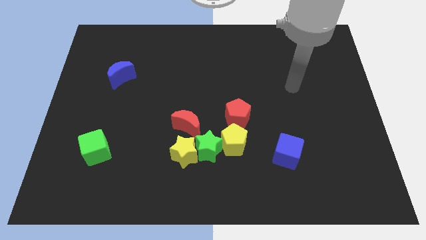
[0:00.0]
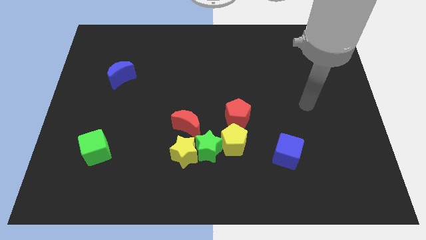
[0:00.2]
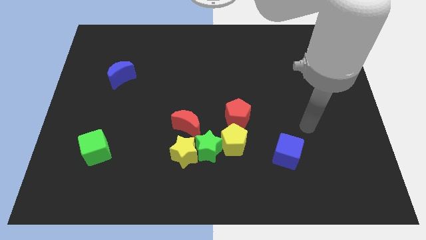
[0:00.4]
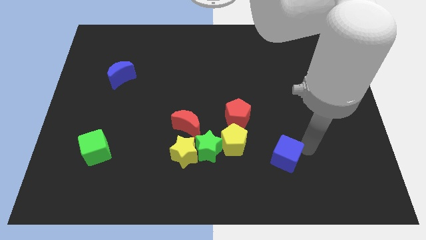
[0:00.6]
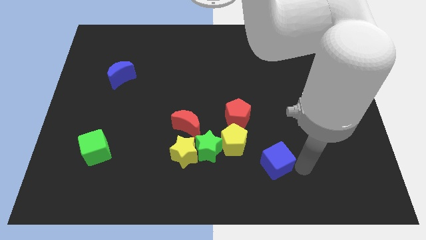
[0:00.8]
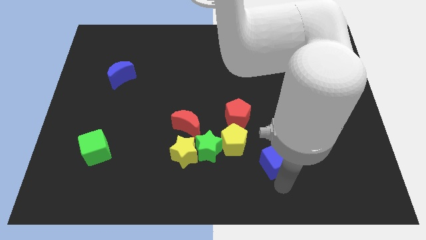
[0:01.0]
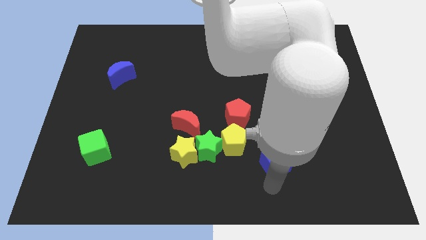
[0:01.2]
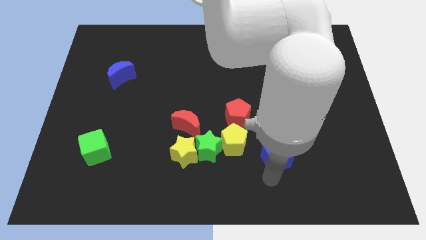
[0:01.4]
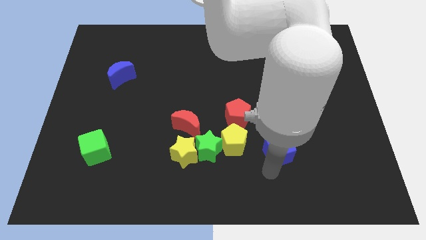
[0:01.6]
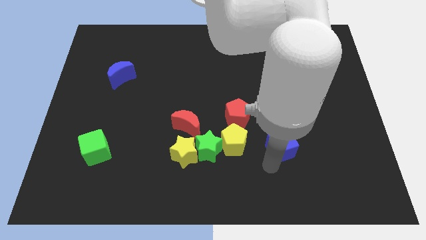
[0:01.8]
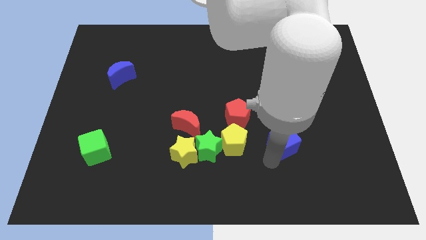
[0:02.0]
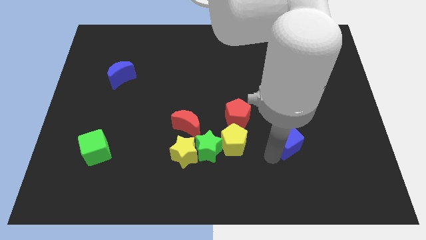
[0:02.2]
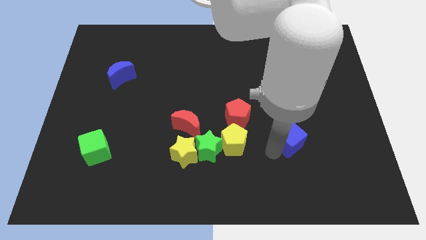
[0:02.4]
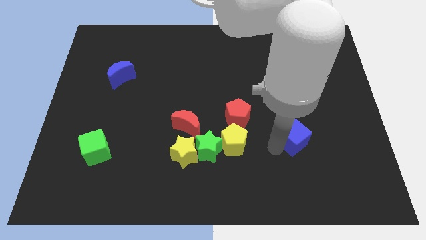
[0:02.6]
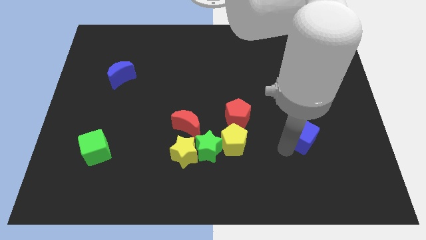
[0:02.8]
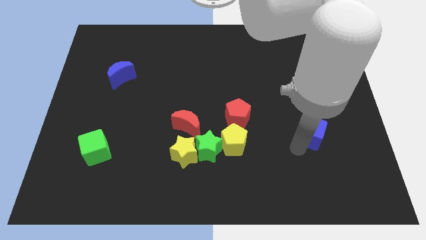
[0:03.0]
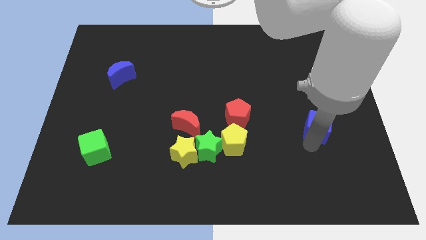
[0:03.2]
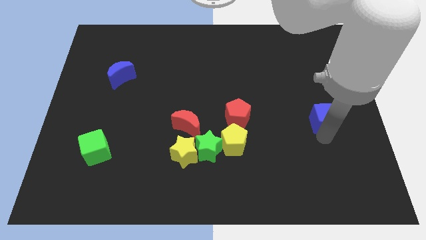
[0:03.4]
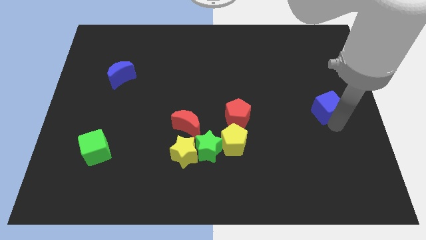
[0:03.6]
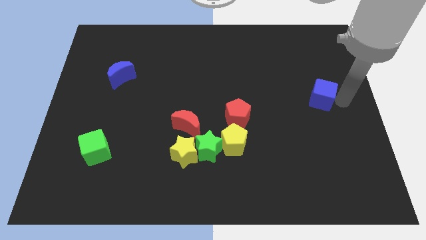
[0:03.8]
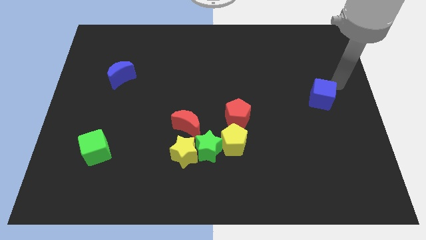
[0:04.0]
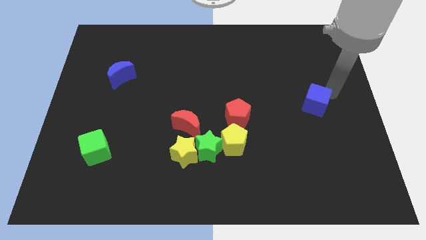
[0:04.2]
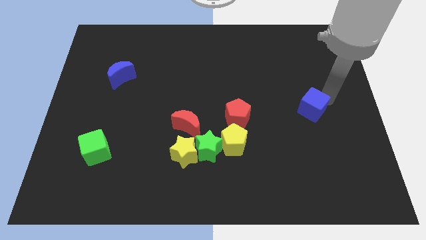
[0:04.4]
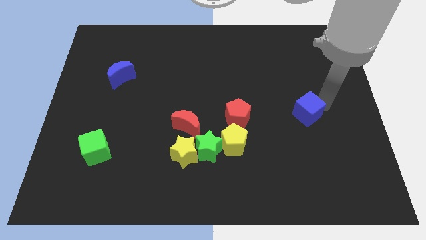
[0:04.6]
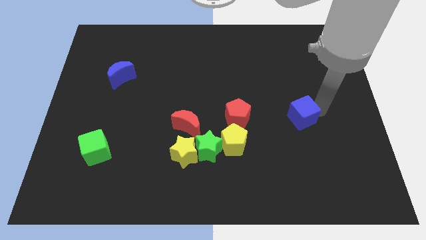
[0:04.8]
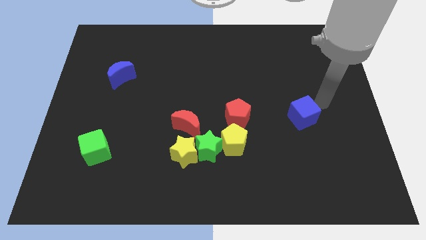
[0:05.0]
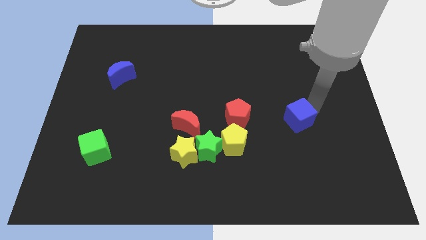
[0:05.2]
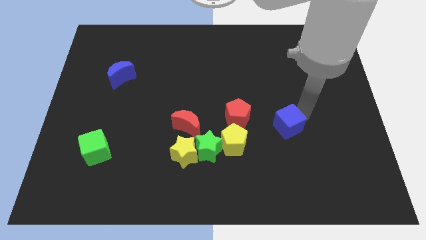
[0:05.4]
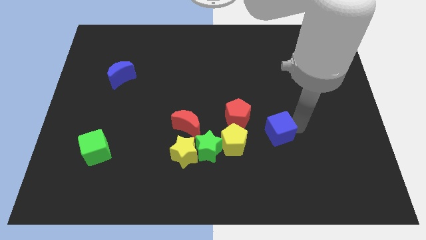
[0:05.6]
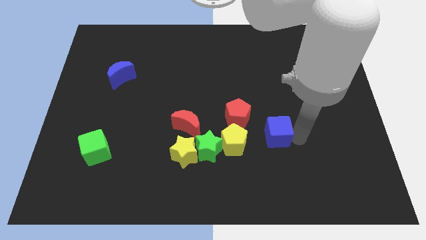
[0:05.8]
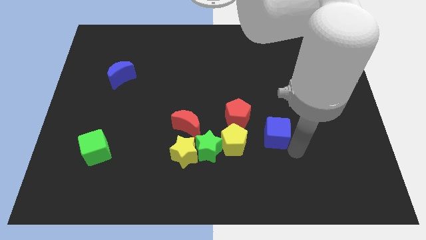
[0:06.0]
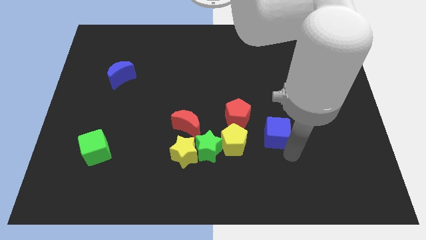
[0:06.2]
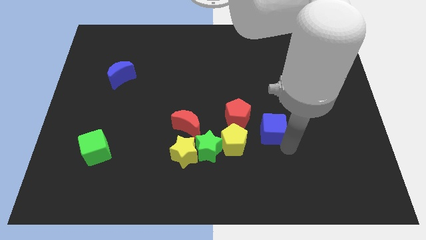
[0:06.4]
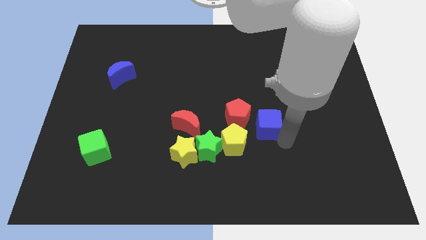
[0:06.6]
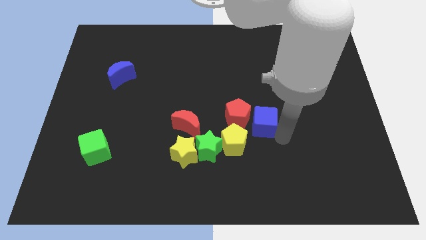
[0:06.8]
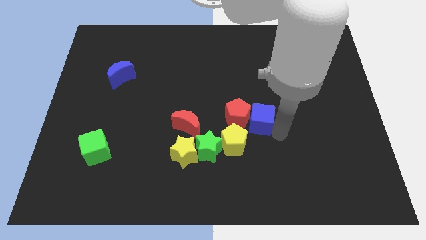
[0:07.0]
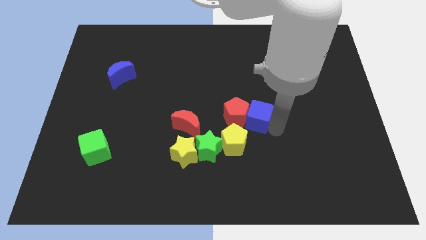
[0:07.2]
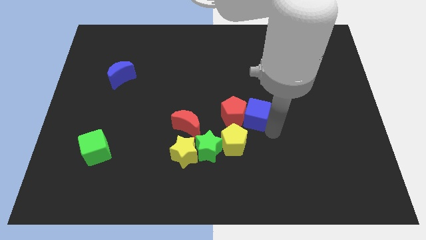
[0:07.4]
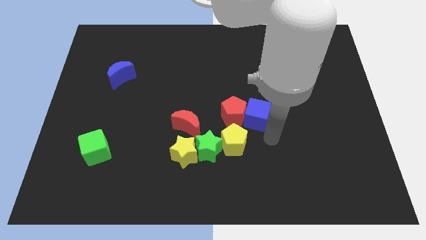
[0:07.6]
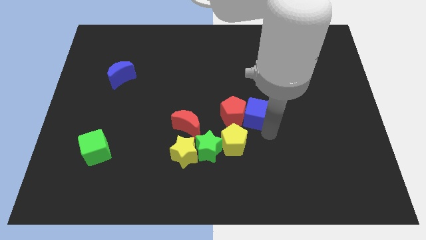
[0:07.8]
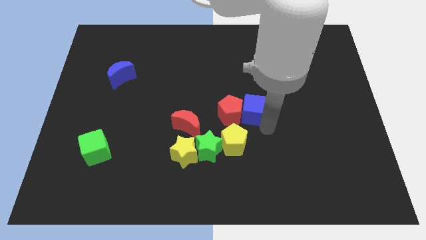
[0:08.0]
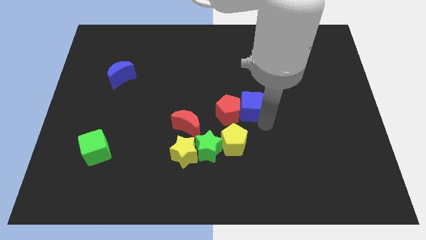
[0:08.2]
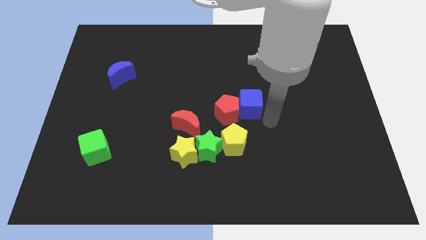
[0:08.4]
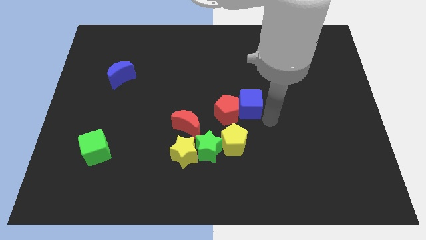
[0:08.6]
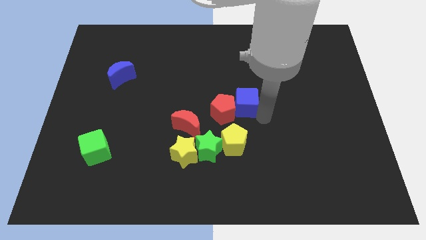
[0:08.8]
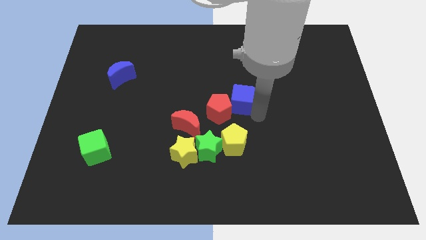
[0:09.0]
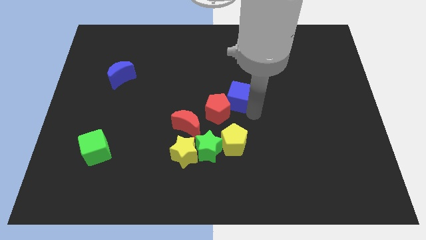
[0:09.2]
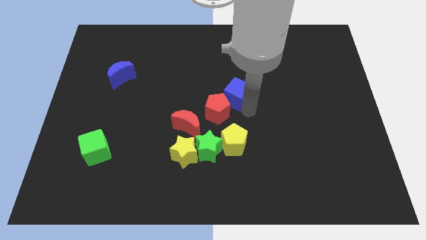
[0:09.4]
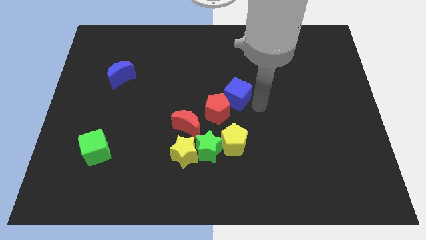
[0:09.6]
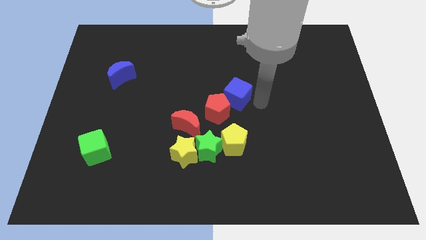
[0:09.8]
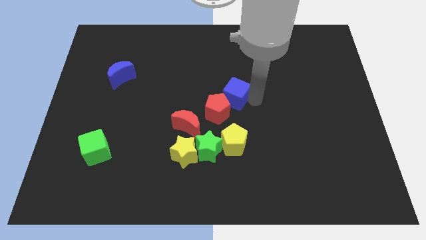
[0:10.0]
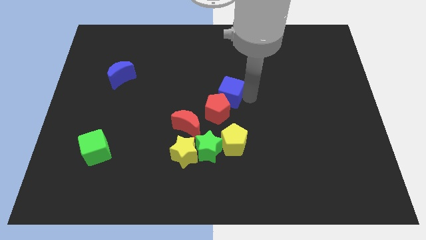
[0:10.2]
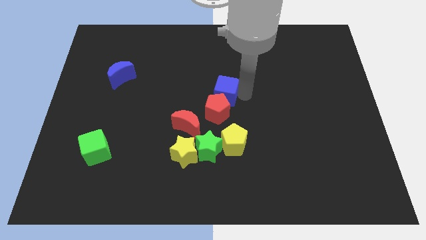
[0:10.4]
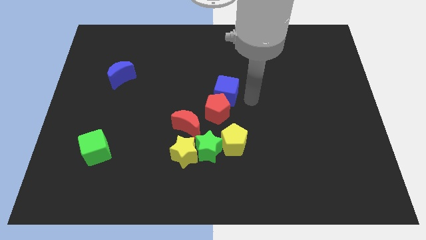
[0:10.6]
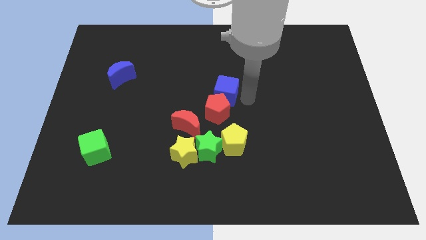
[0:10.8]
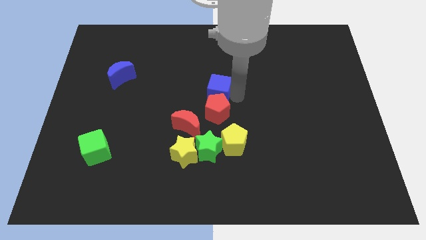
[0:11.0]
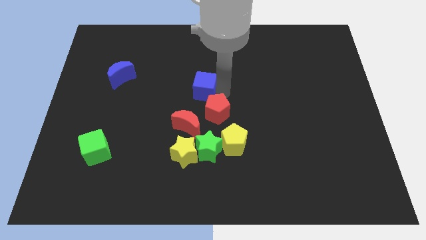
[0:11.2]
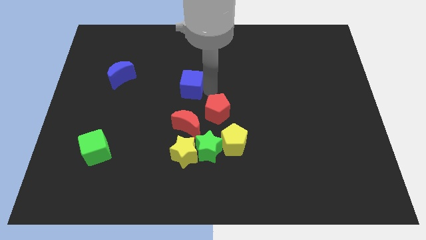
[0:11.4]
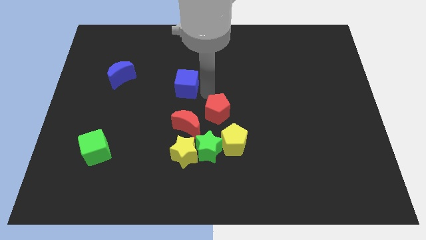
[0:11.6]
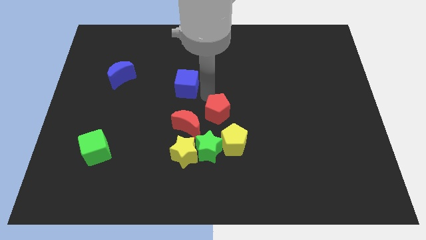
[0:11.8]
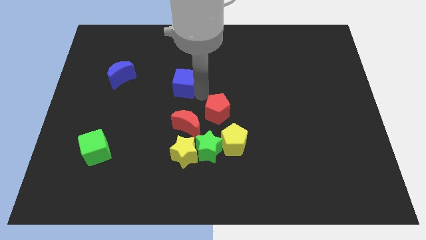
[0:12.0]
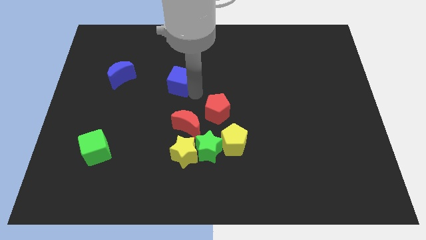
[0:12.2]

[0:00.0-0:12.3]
push the blue cube right of the blue moon

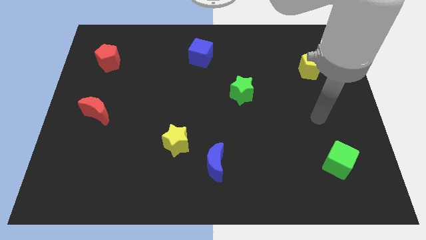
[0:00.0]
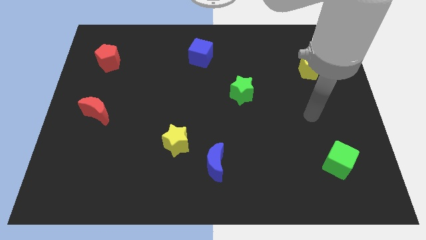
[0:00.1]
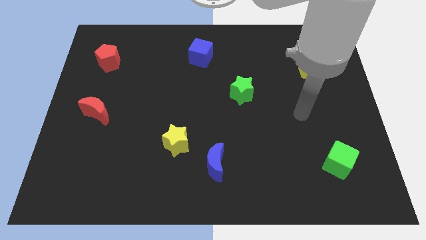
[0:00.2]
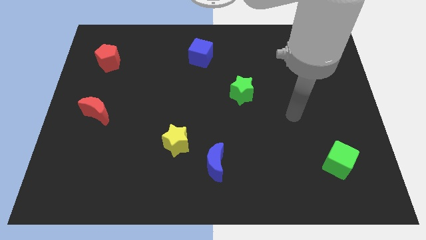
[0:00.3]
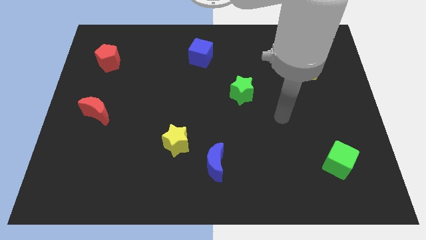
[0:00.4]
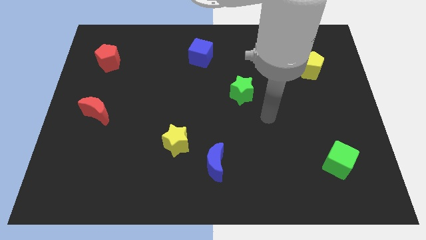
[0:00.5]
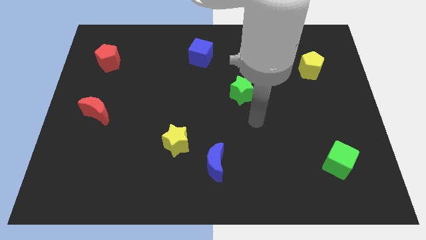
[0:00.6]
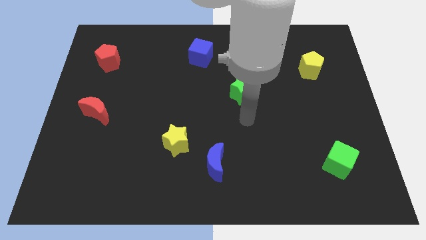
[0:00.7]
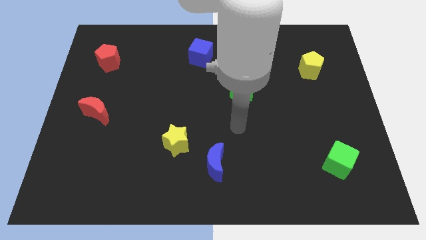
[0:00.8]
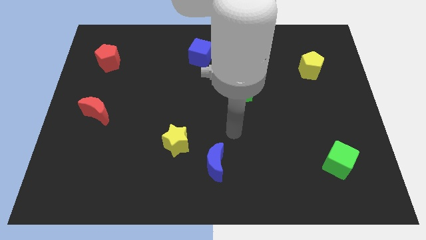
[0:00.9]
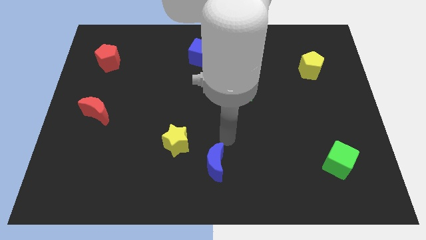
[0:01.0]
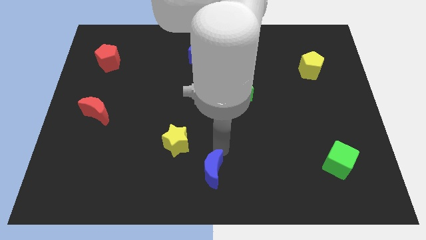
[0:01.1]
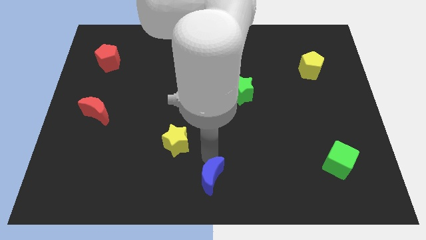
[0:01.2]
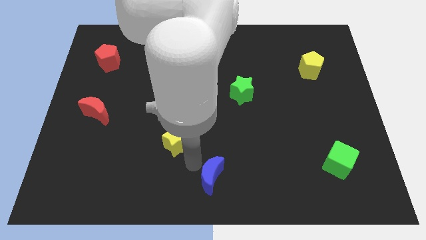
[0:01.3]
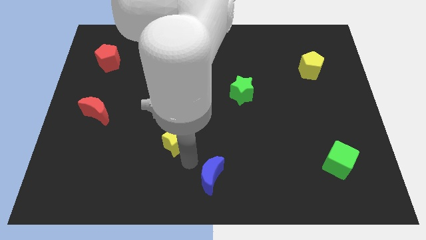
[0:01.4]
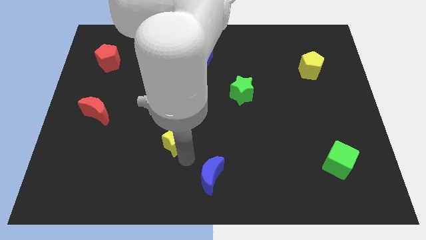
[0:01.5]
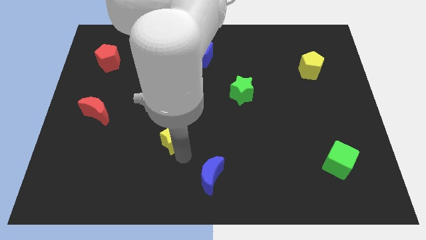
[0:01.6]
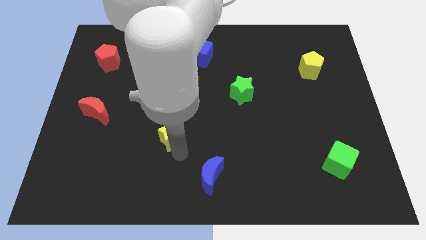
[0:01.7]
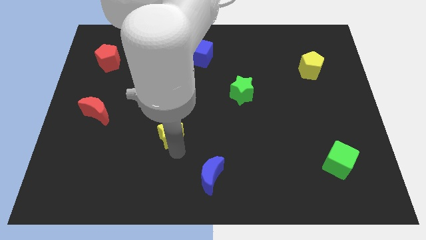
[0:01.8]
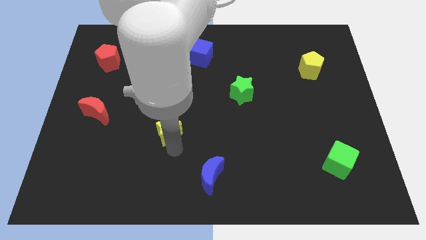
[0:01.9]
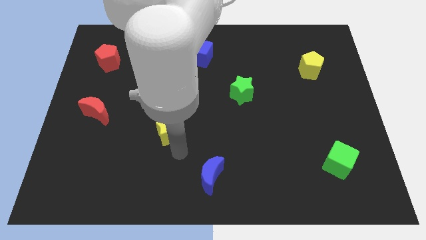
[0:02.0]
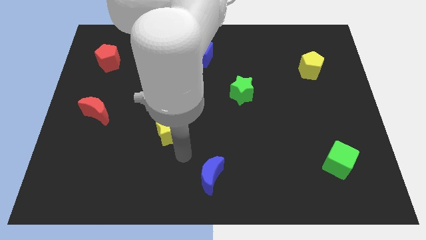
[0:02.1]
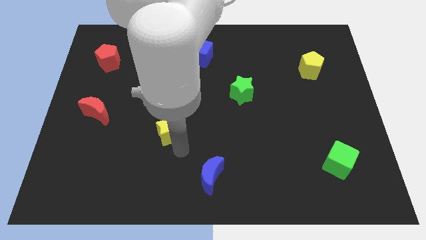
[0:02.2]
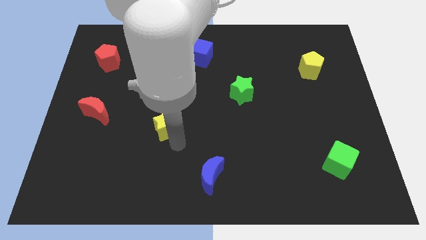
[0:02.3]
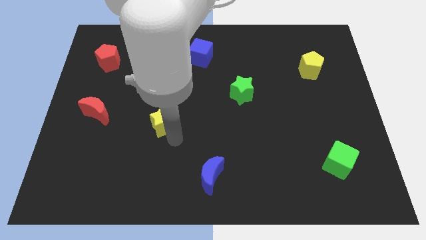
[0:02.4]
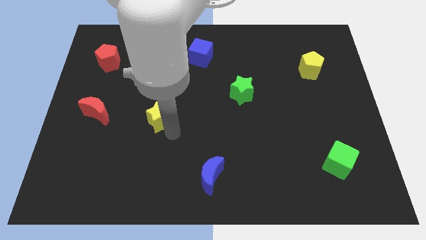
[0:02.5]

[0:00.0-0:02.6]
move the yellow star right of the red moon
